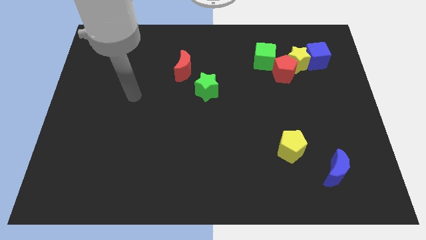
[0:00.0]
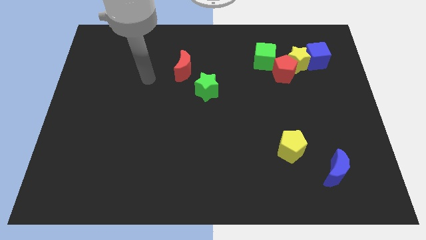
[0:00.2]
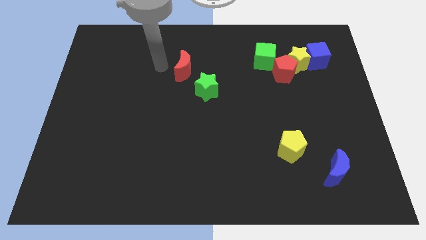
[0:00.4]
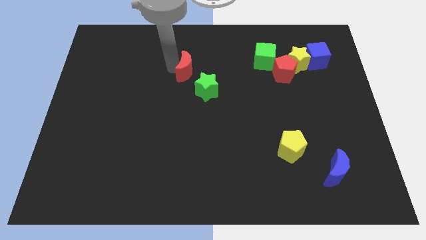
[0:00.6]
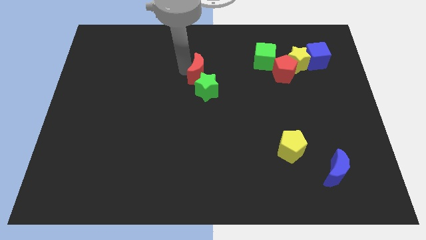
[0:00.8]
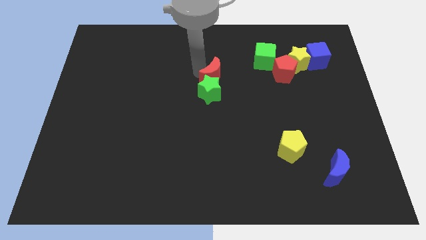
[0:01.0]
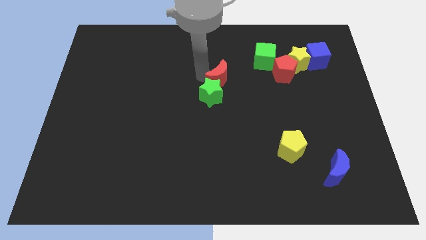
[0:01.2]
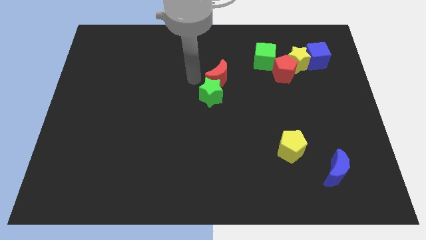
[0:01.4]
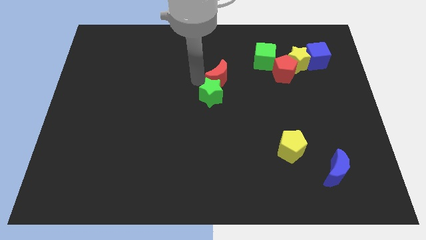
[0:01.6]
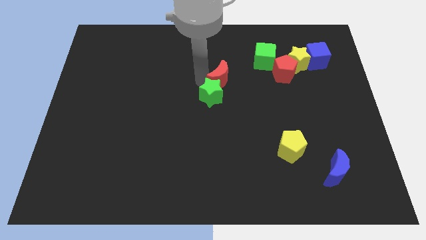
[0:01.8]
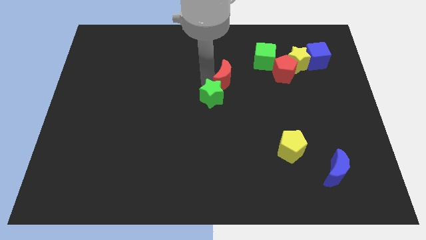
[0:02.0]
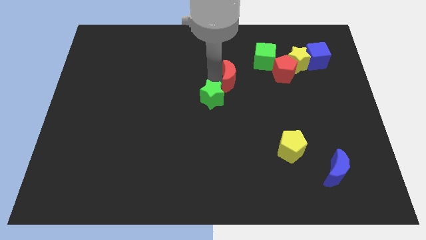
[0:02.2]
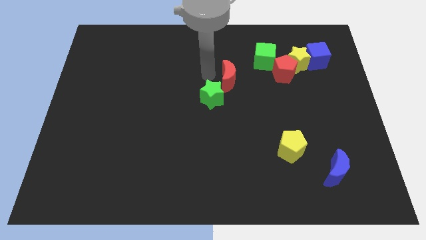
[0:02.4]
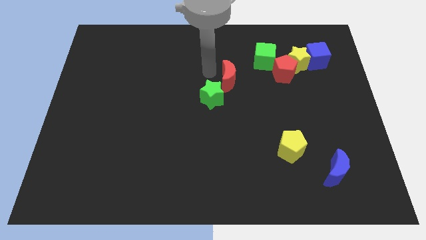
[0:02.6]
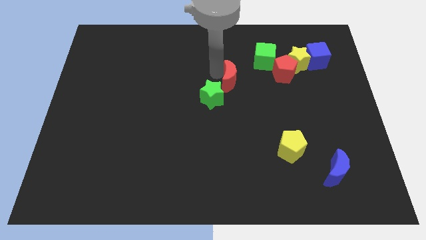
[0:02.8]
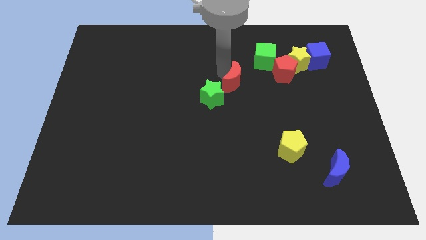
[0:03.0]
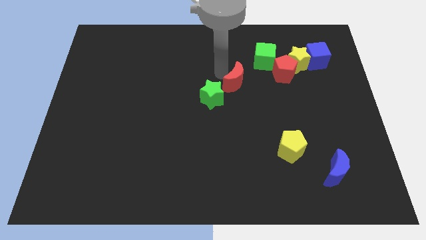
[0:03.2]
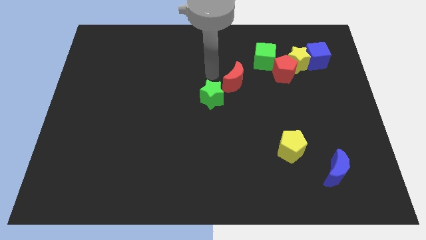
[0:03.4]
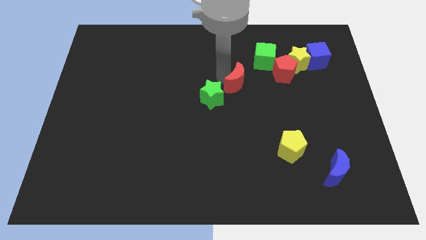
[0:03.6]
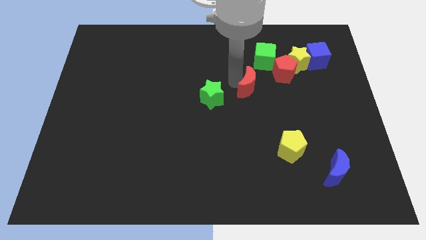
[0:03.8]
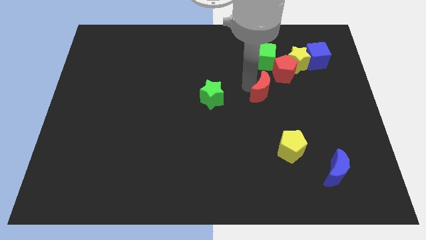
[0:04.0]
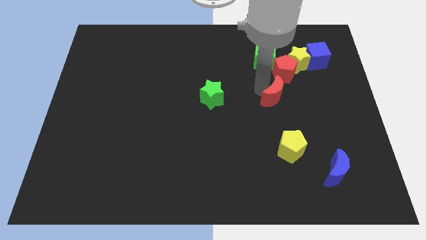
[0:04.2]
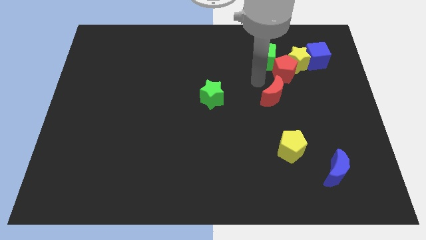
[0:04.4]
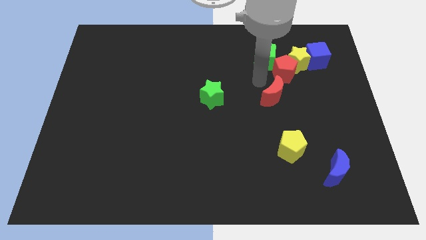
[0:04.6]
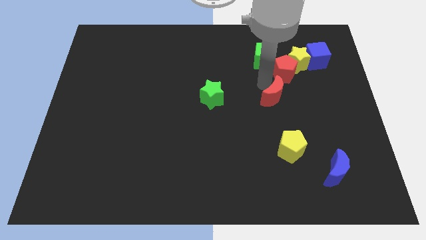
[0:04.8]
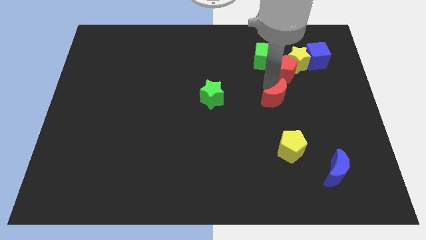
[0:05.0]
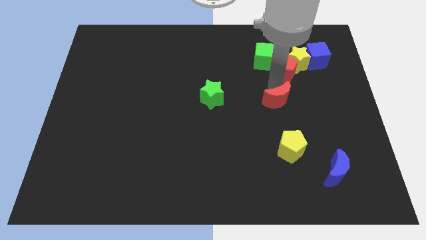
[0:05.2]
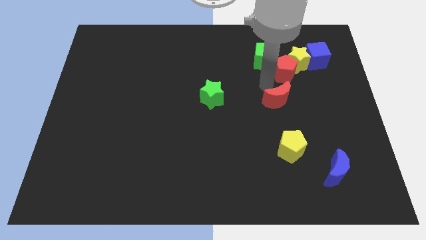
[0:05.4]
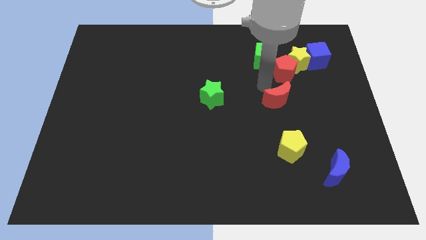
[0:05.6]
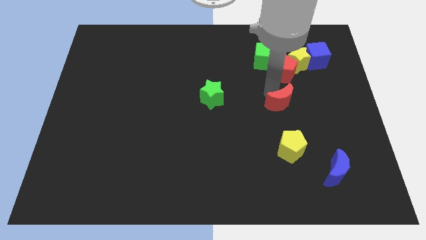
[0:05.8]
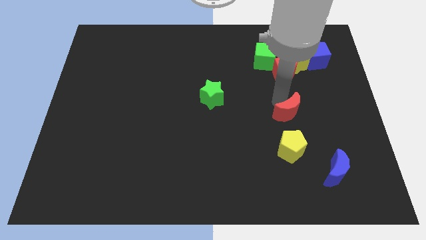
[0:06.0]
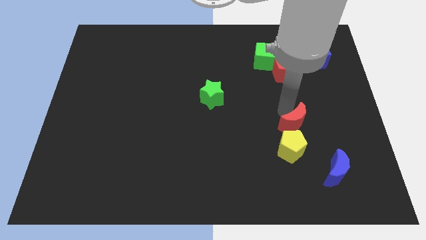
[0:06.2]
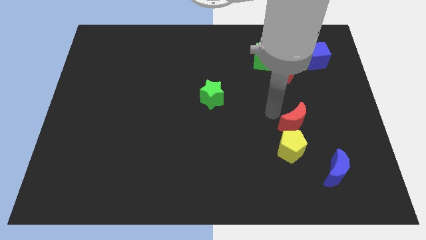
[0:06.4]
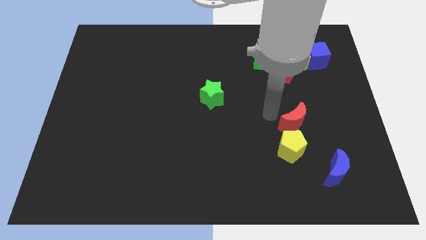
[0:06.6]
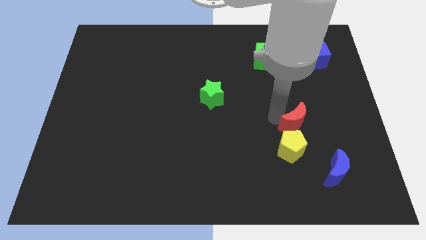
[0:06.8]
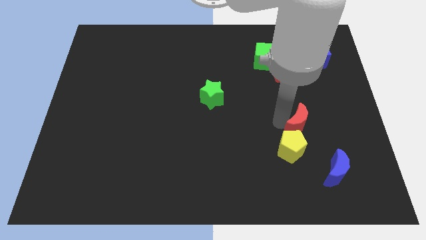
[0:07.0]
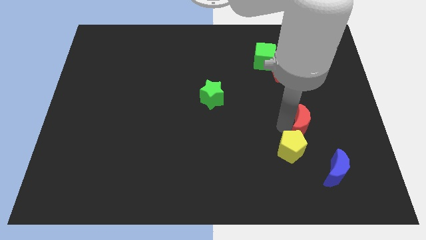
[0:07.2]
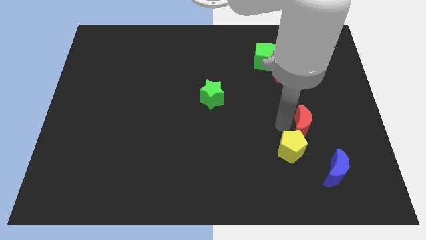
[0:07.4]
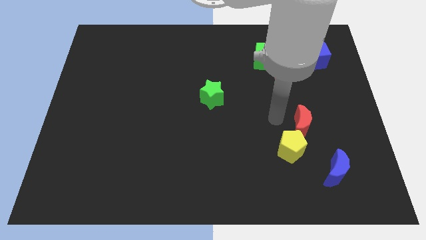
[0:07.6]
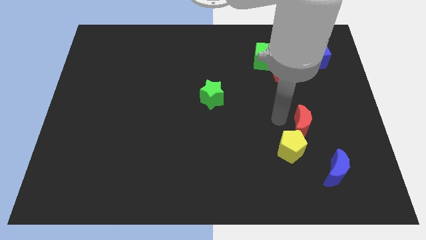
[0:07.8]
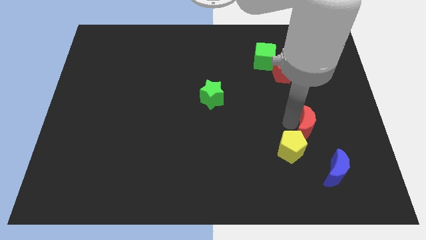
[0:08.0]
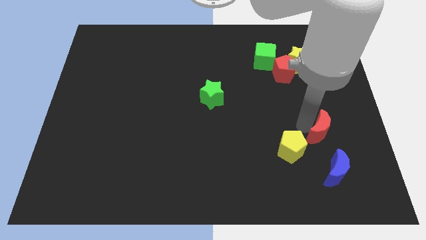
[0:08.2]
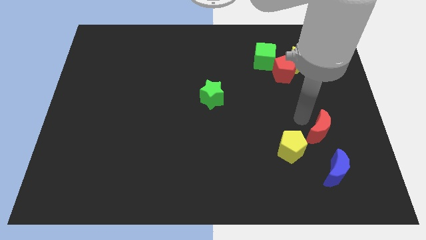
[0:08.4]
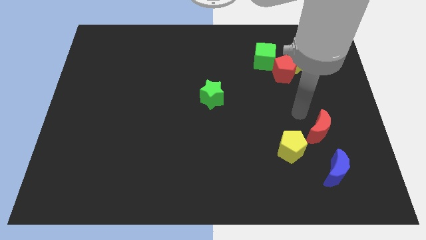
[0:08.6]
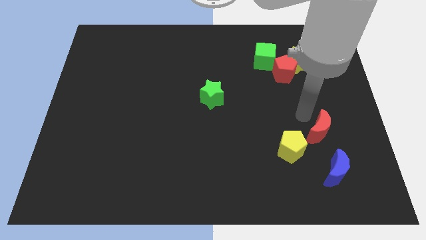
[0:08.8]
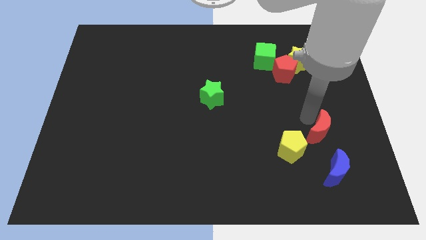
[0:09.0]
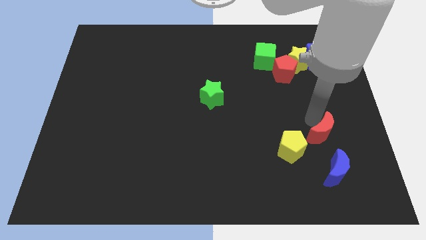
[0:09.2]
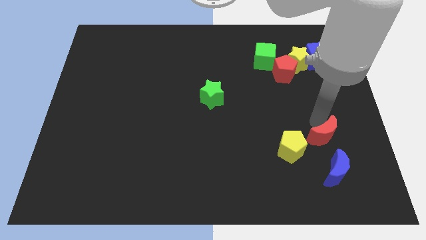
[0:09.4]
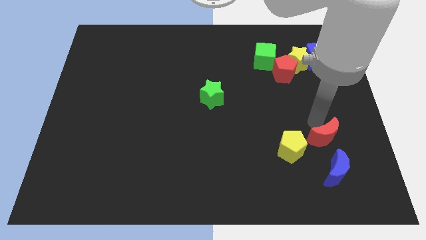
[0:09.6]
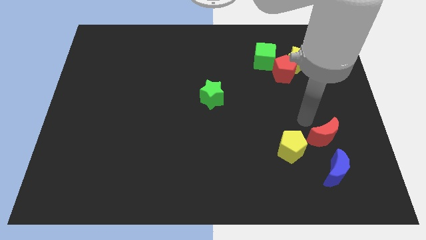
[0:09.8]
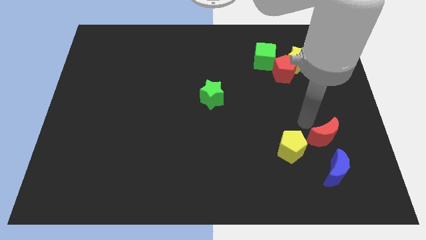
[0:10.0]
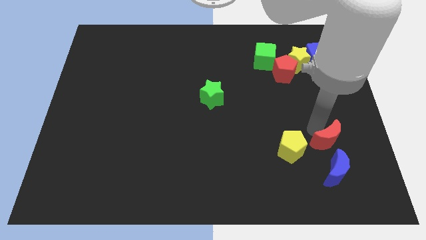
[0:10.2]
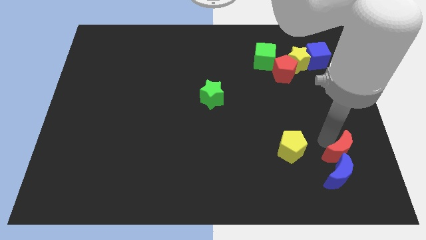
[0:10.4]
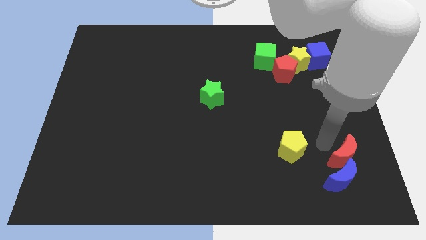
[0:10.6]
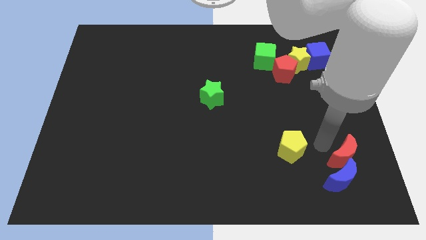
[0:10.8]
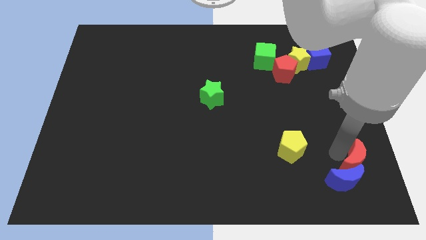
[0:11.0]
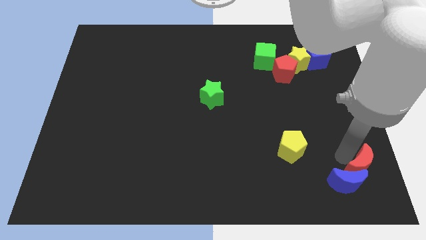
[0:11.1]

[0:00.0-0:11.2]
push the red moon to the bottom right corner
